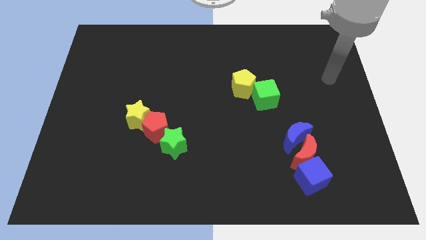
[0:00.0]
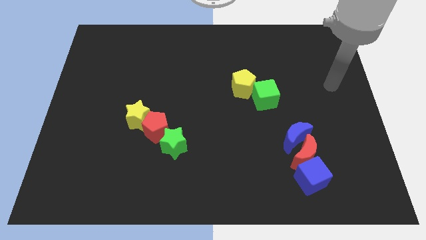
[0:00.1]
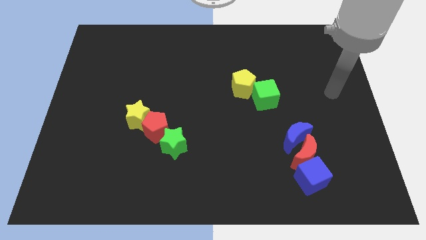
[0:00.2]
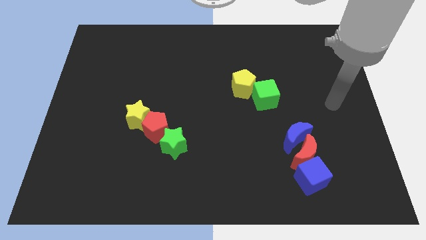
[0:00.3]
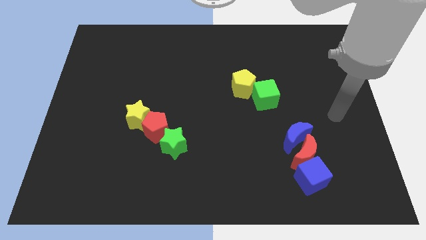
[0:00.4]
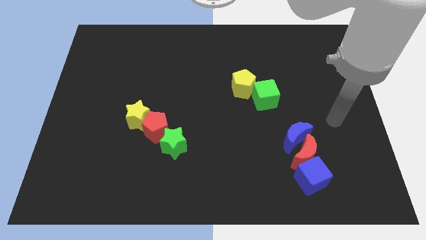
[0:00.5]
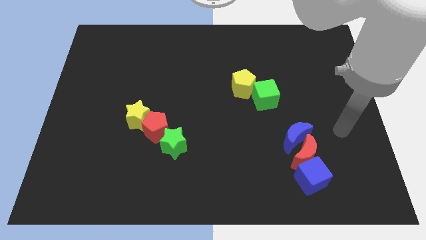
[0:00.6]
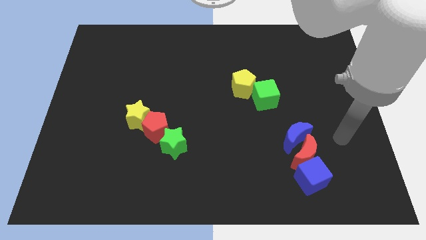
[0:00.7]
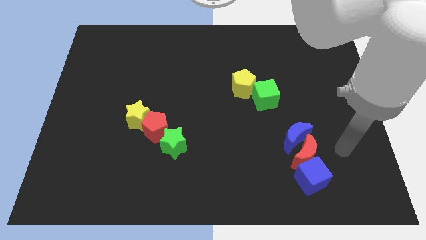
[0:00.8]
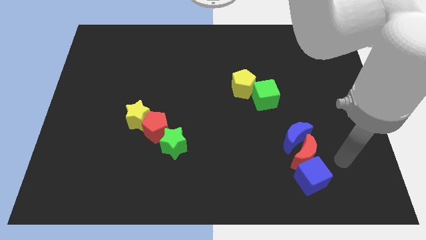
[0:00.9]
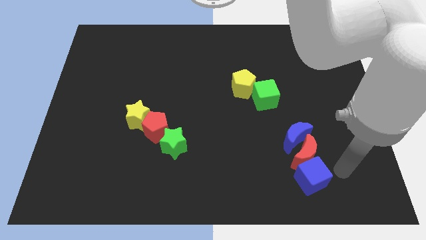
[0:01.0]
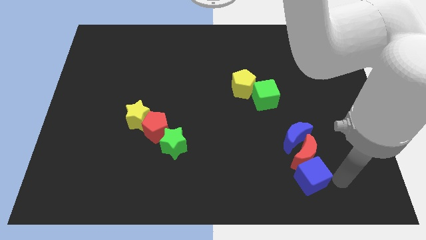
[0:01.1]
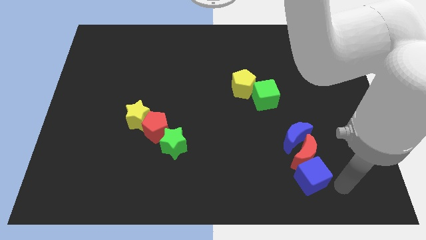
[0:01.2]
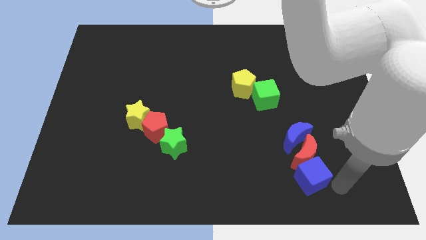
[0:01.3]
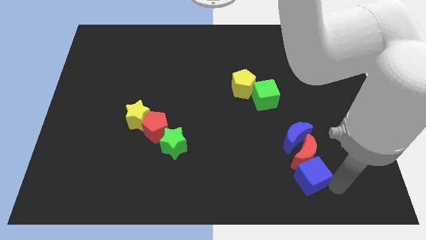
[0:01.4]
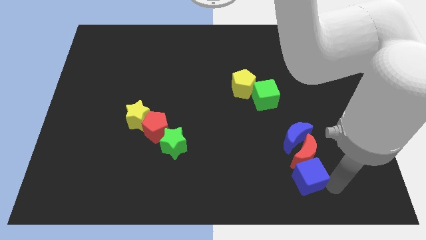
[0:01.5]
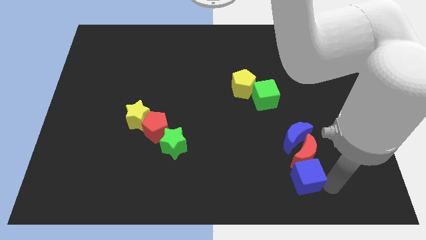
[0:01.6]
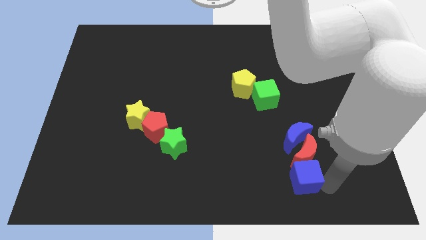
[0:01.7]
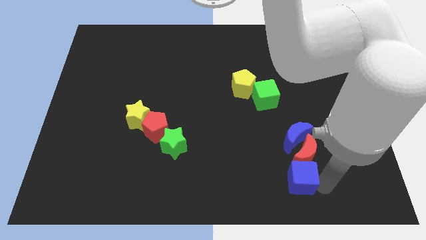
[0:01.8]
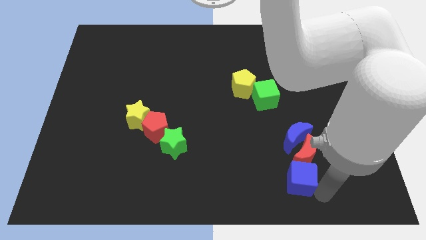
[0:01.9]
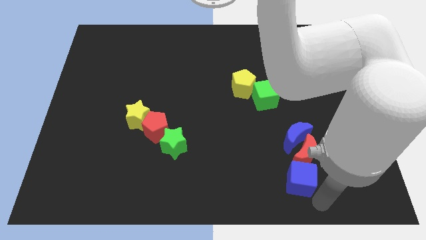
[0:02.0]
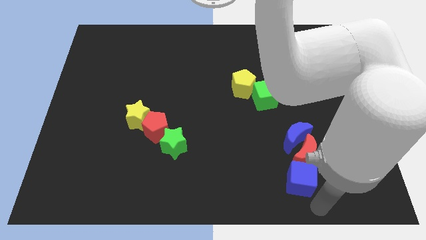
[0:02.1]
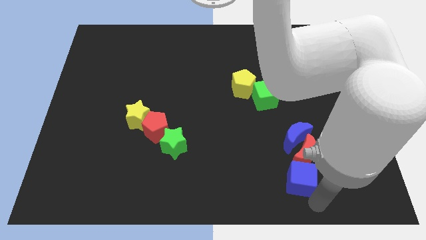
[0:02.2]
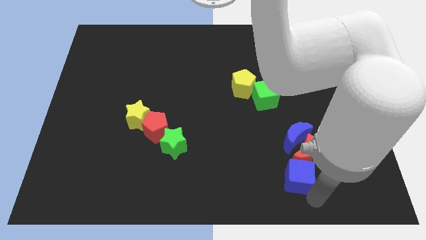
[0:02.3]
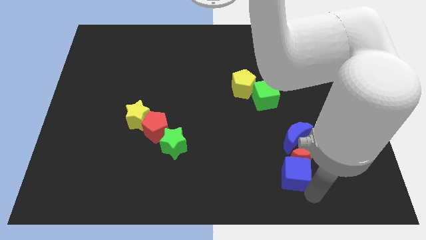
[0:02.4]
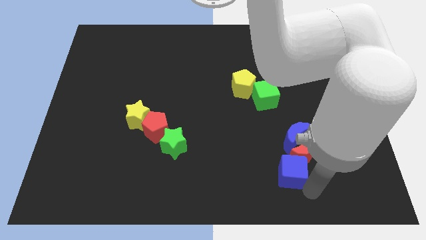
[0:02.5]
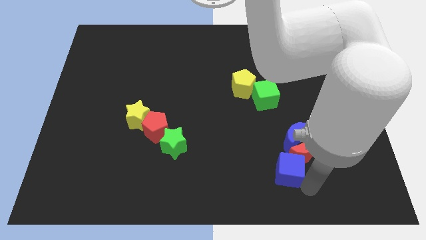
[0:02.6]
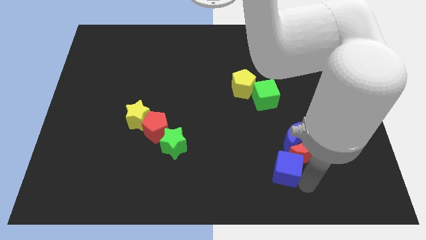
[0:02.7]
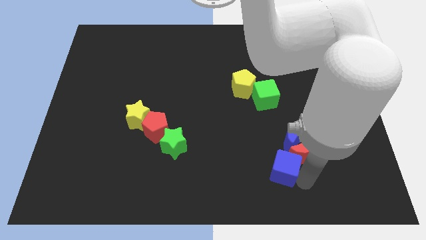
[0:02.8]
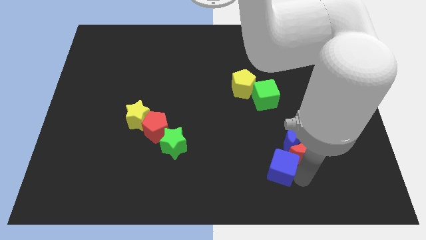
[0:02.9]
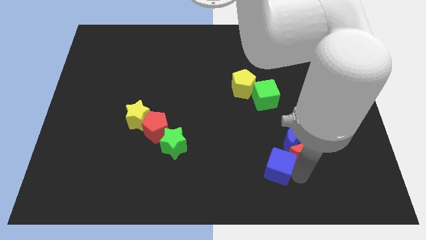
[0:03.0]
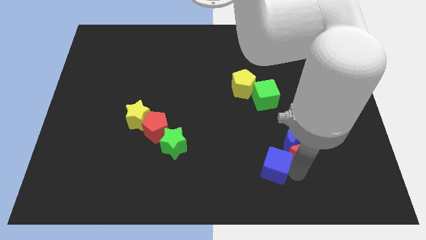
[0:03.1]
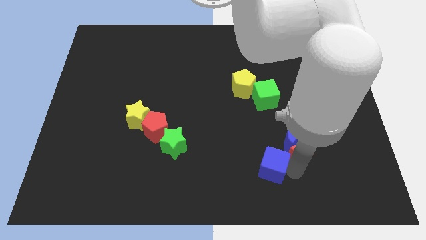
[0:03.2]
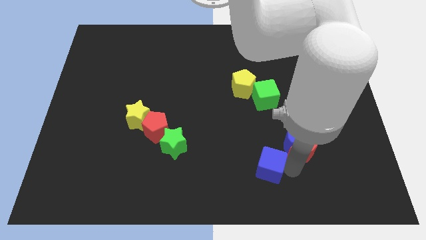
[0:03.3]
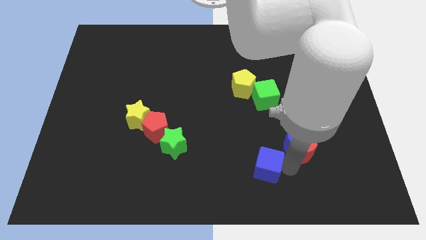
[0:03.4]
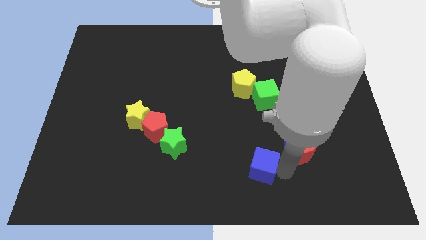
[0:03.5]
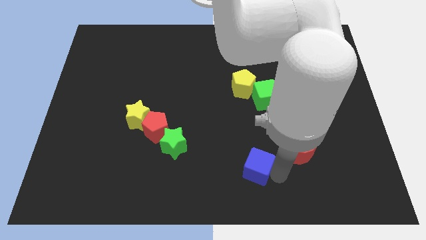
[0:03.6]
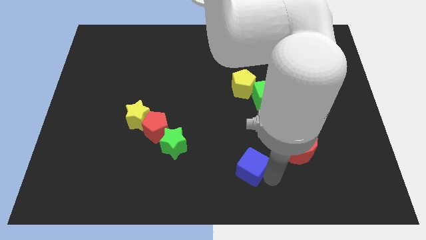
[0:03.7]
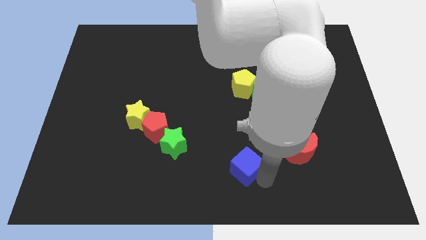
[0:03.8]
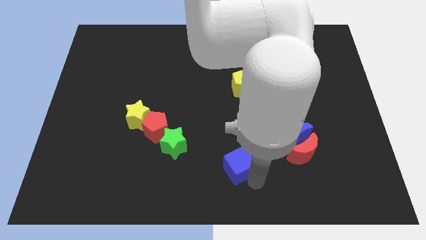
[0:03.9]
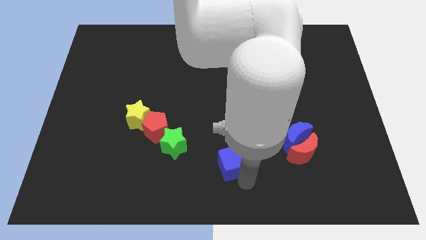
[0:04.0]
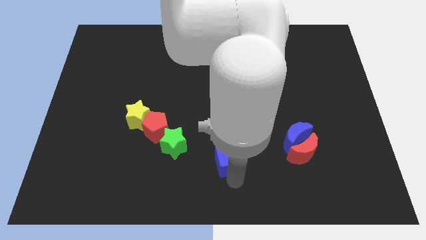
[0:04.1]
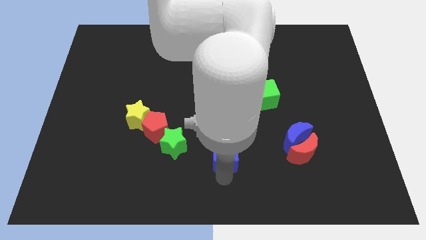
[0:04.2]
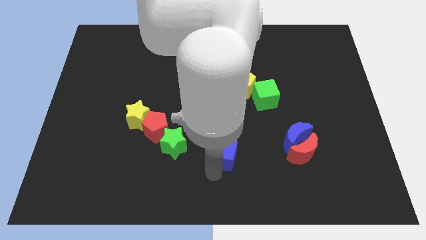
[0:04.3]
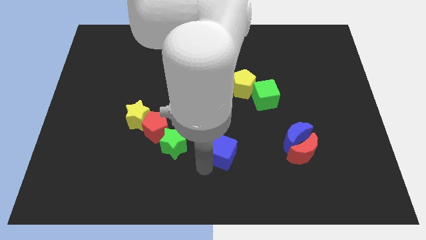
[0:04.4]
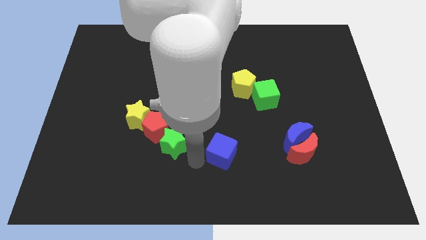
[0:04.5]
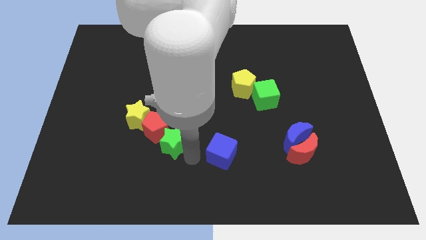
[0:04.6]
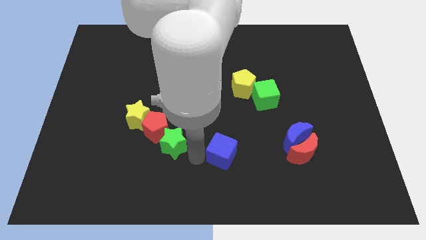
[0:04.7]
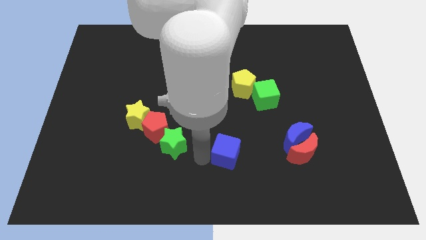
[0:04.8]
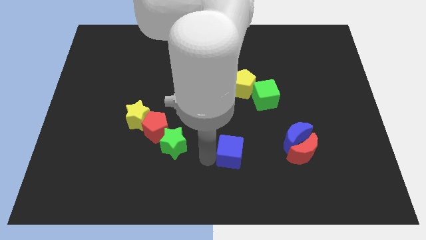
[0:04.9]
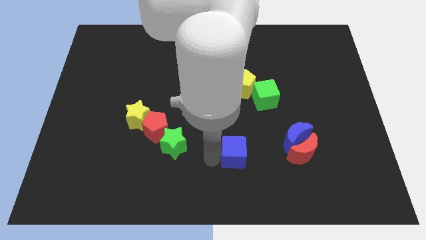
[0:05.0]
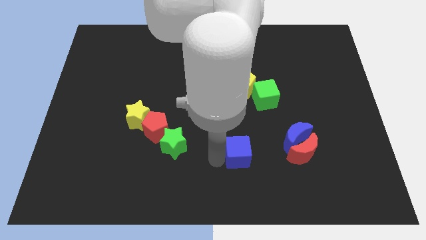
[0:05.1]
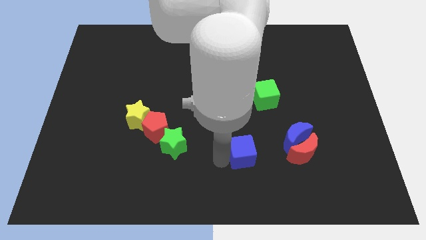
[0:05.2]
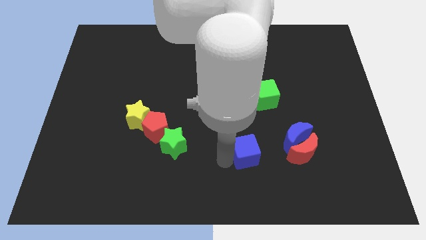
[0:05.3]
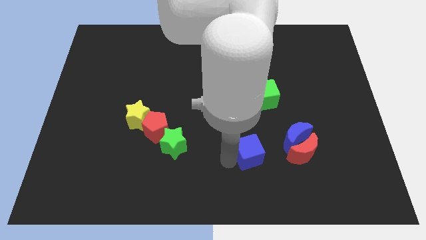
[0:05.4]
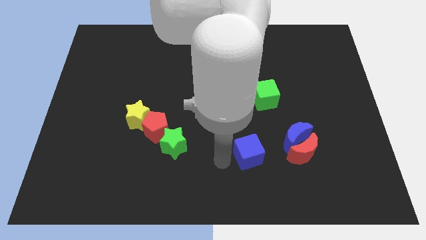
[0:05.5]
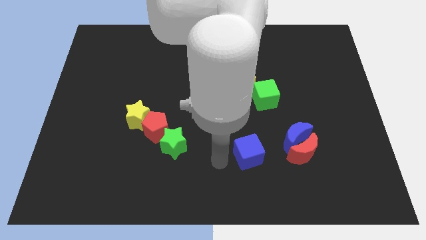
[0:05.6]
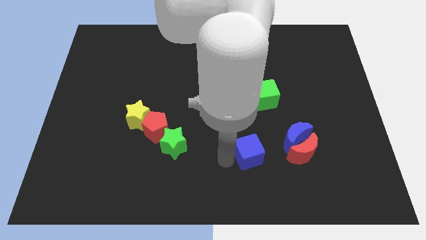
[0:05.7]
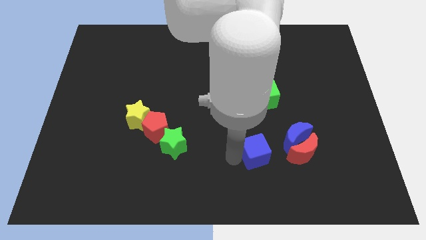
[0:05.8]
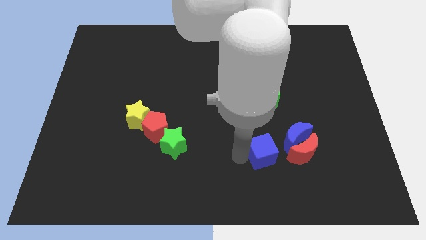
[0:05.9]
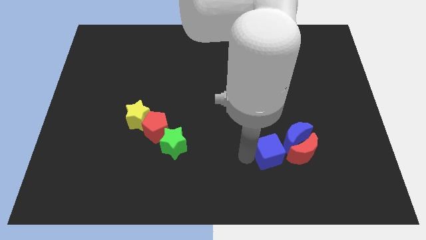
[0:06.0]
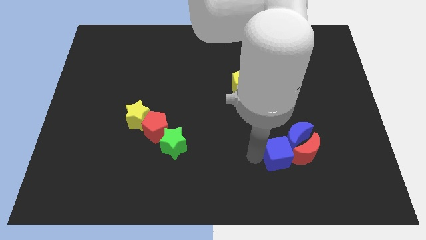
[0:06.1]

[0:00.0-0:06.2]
push the blue cube to the blue moon

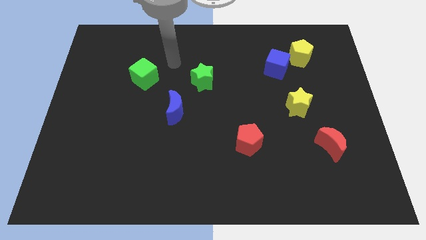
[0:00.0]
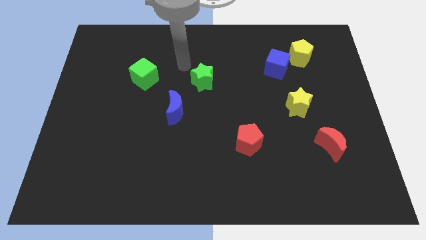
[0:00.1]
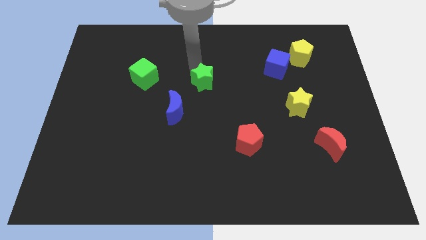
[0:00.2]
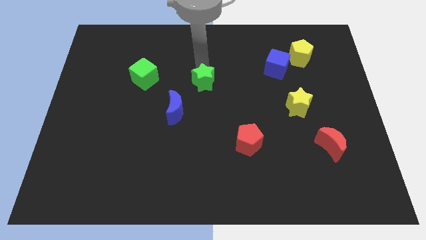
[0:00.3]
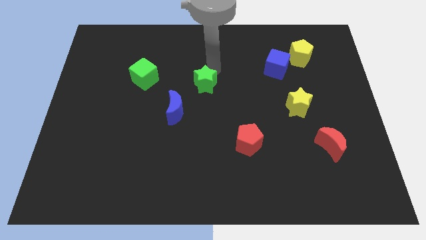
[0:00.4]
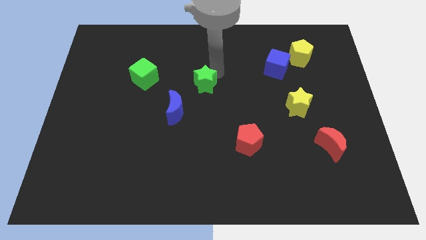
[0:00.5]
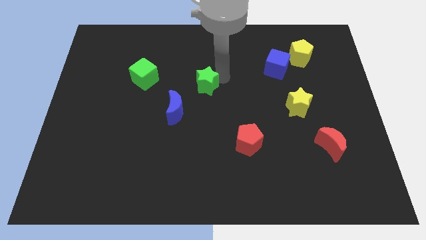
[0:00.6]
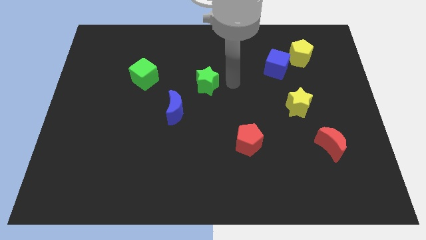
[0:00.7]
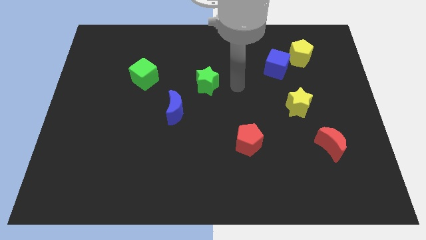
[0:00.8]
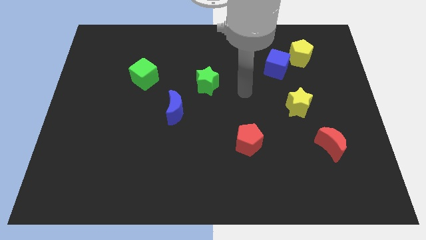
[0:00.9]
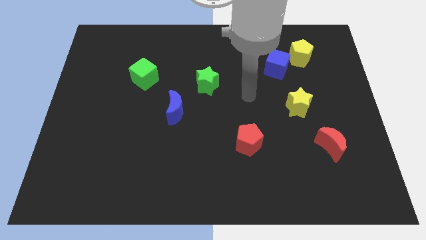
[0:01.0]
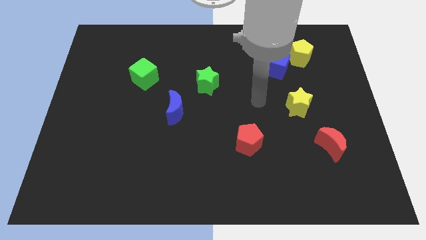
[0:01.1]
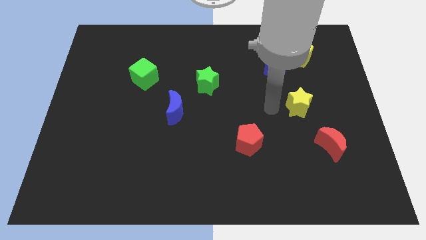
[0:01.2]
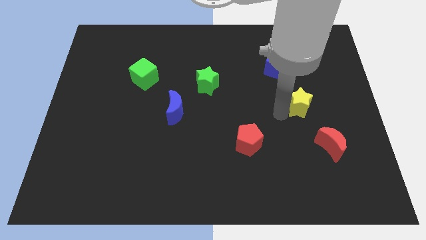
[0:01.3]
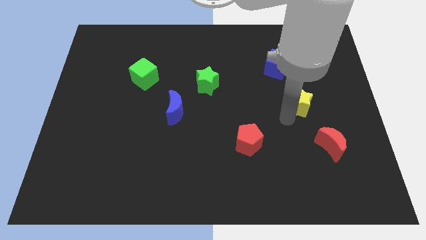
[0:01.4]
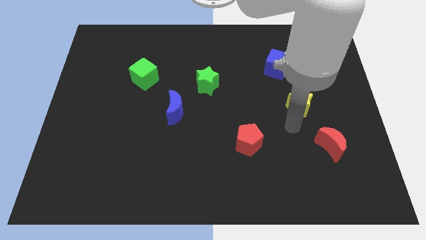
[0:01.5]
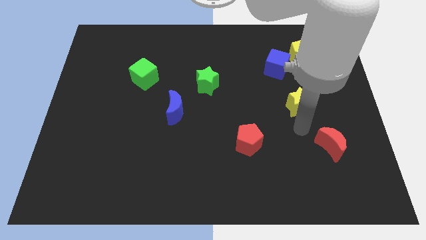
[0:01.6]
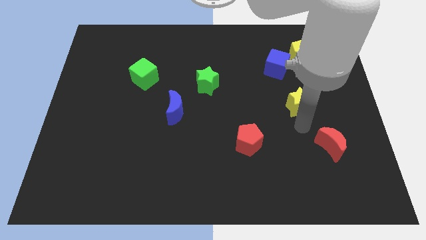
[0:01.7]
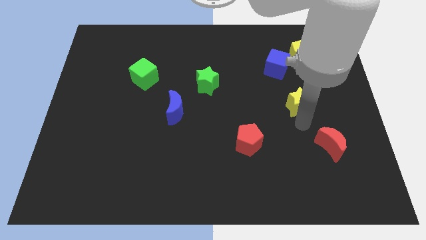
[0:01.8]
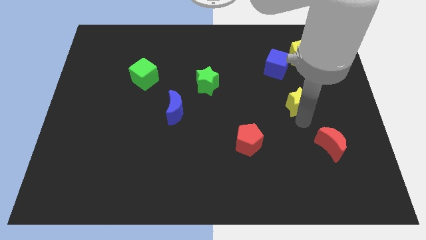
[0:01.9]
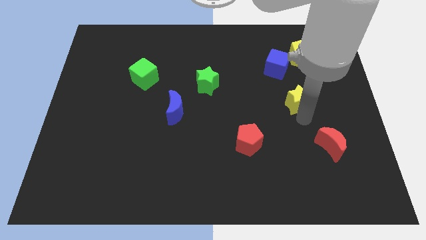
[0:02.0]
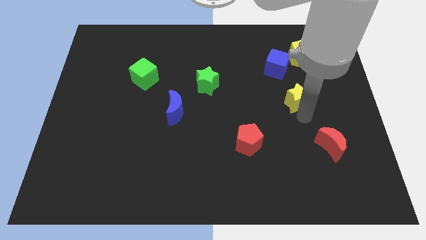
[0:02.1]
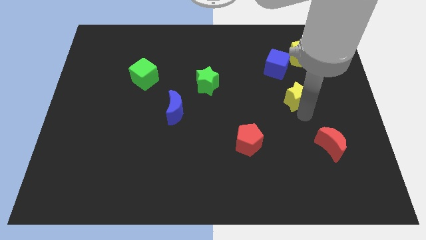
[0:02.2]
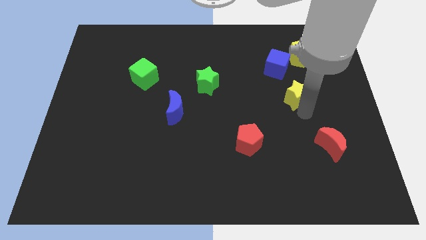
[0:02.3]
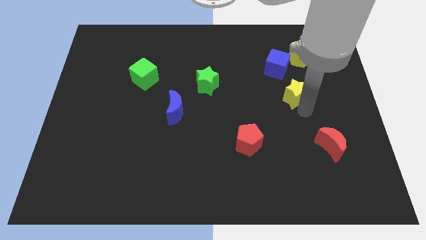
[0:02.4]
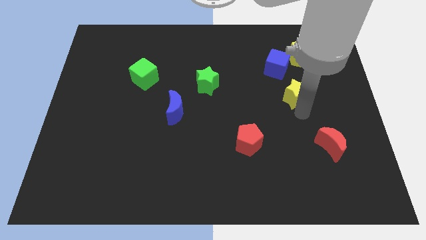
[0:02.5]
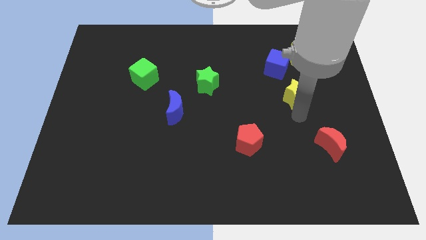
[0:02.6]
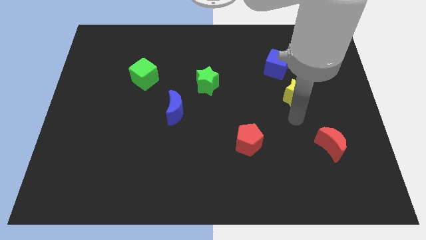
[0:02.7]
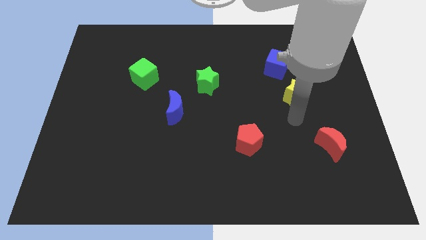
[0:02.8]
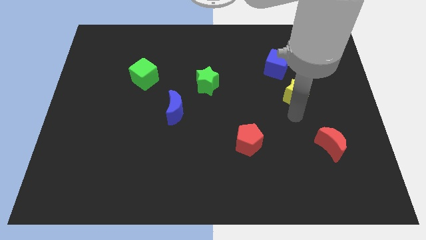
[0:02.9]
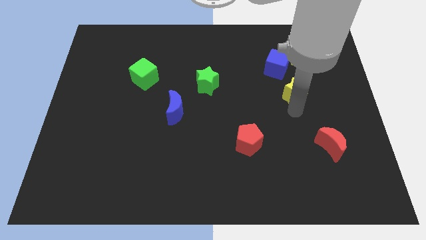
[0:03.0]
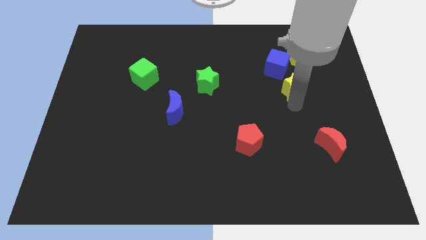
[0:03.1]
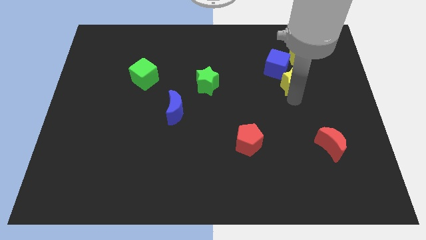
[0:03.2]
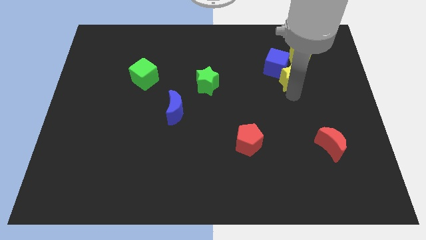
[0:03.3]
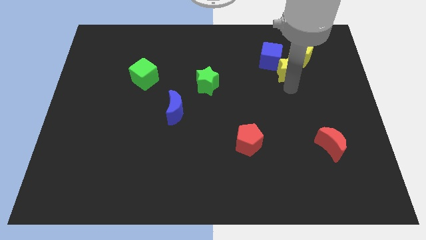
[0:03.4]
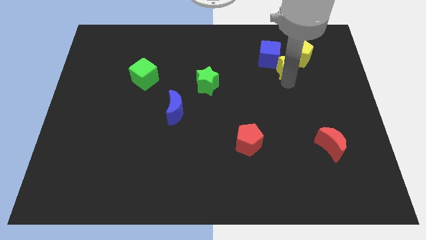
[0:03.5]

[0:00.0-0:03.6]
slide the yellow star to the yellow pentagon
